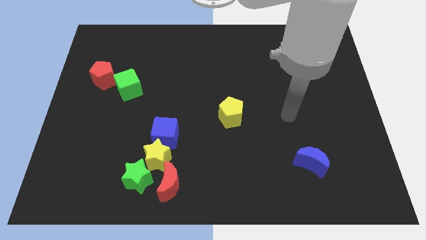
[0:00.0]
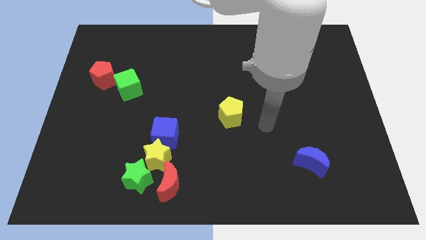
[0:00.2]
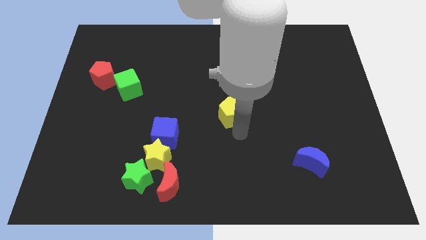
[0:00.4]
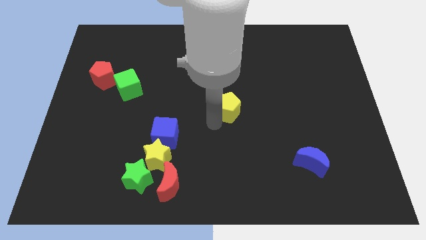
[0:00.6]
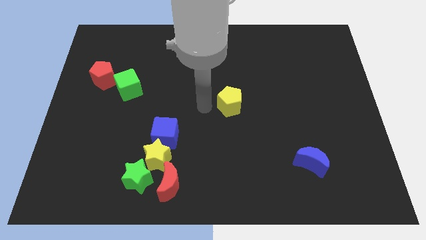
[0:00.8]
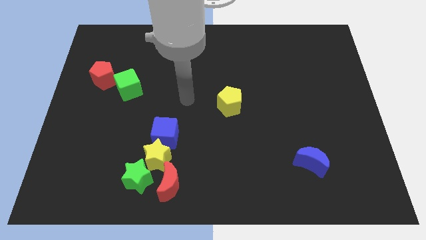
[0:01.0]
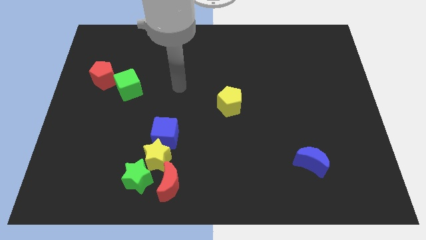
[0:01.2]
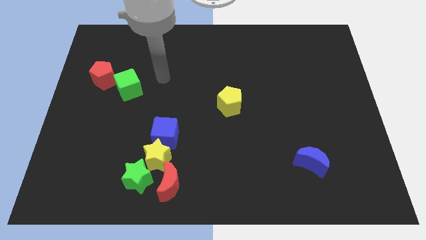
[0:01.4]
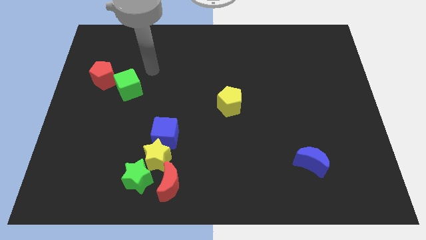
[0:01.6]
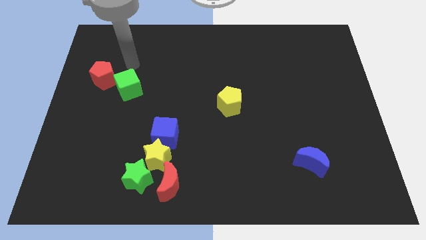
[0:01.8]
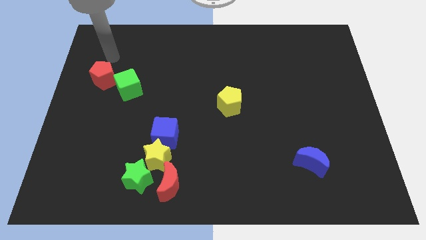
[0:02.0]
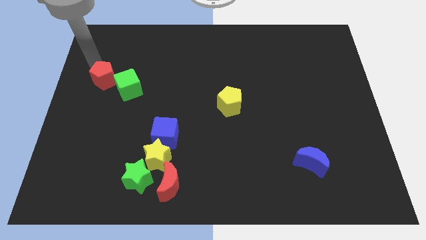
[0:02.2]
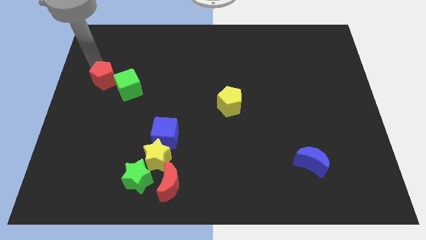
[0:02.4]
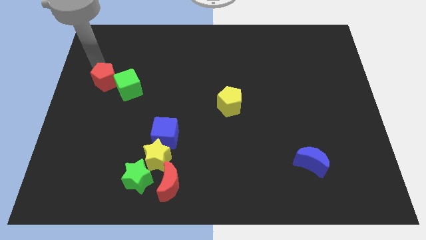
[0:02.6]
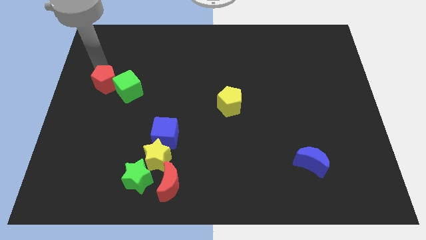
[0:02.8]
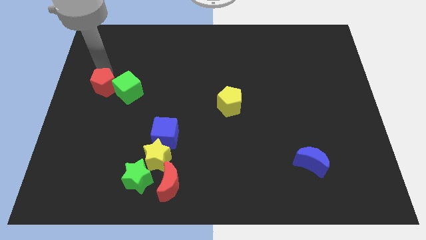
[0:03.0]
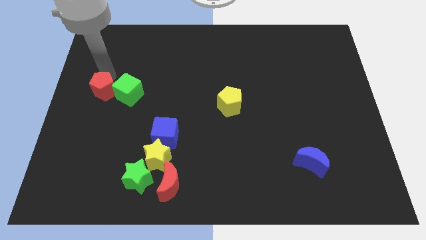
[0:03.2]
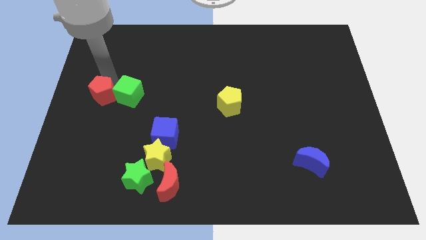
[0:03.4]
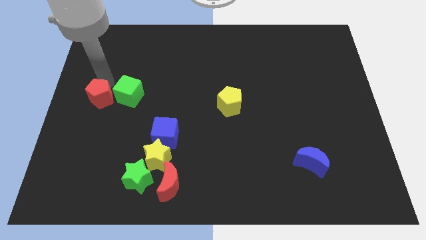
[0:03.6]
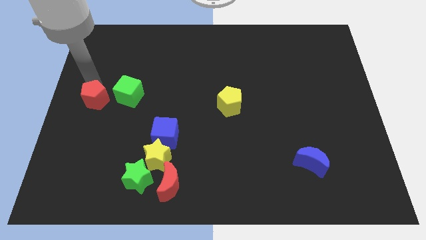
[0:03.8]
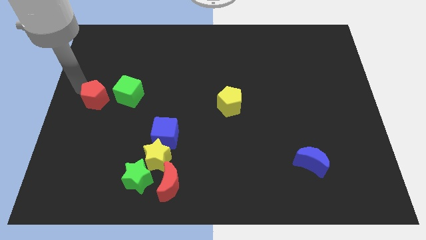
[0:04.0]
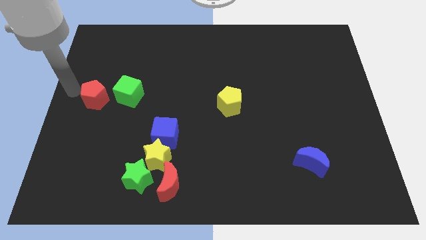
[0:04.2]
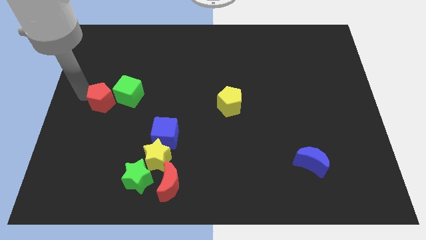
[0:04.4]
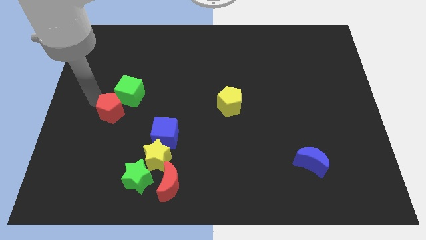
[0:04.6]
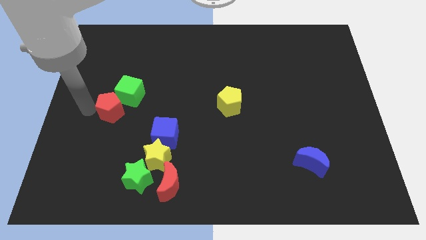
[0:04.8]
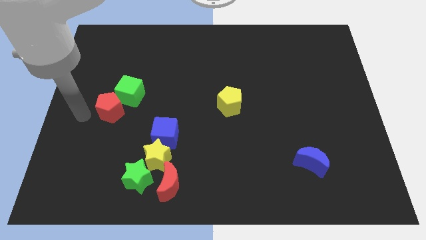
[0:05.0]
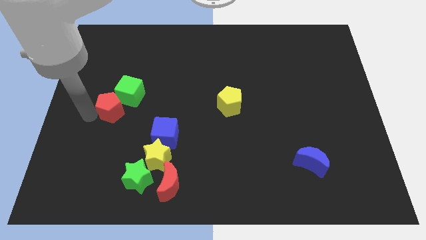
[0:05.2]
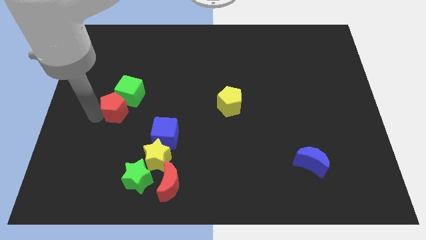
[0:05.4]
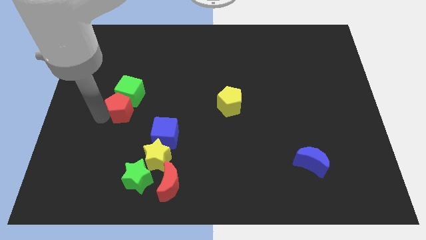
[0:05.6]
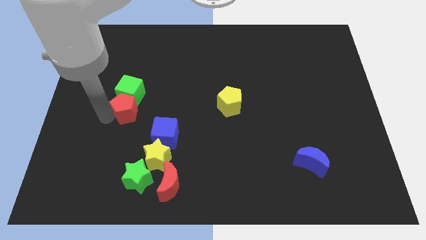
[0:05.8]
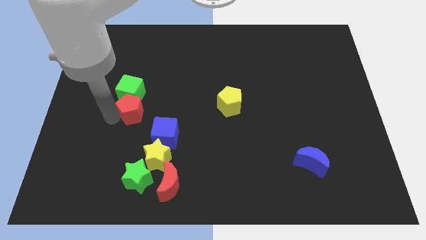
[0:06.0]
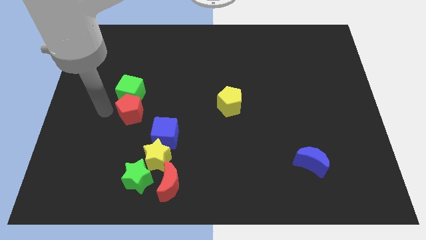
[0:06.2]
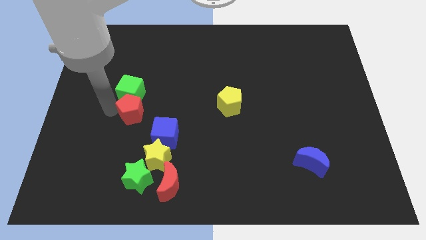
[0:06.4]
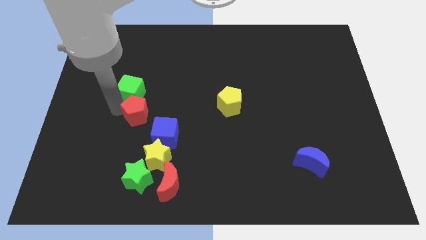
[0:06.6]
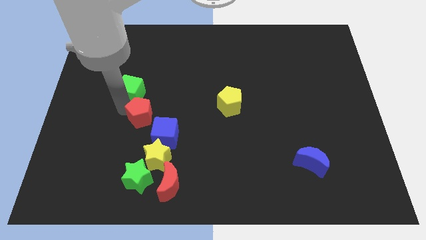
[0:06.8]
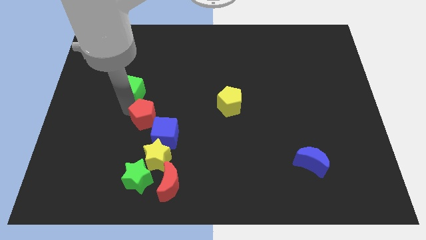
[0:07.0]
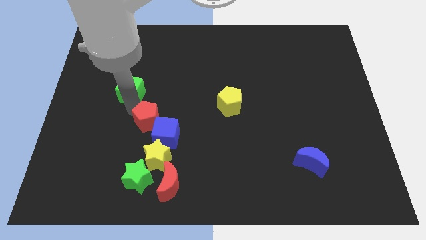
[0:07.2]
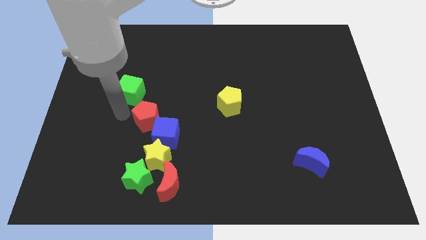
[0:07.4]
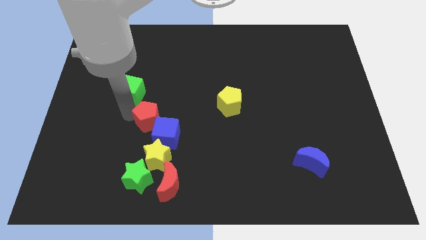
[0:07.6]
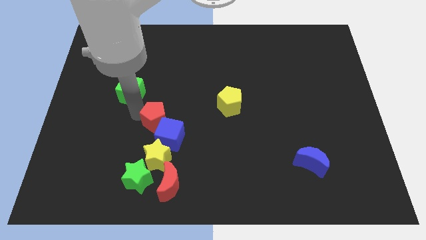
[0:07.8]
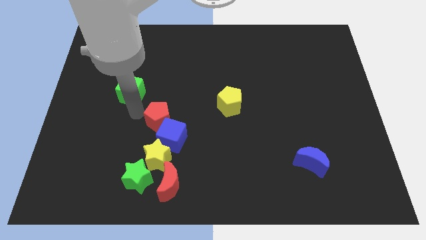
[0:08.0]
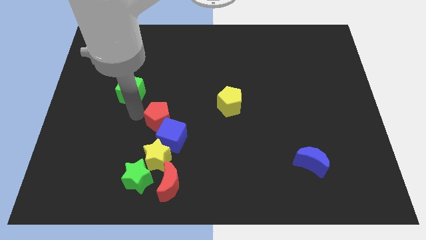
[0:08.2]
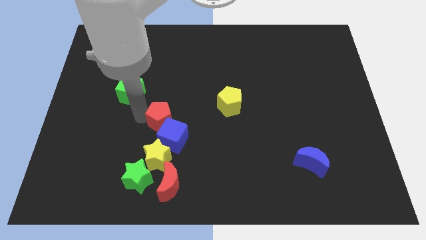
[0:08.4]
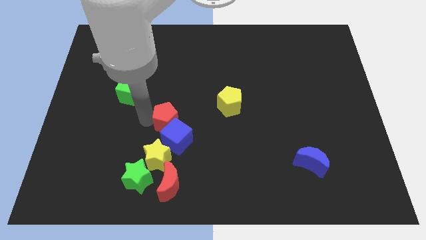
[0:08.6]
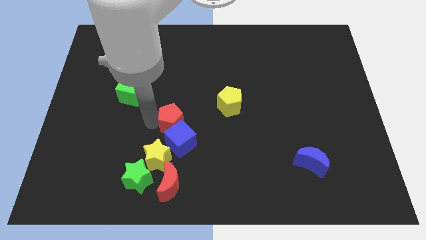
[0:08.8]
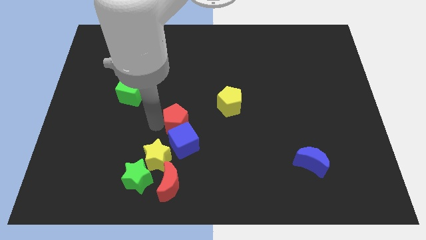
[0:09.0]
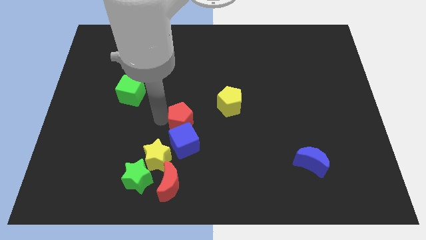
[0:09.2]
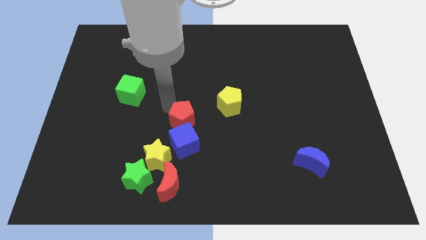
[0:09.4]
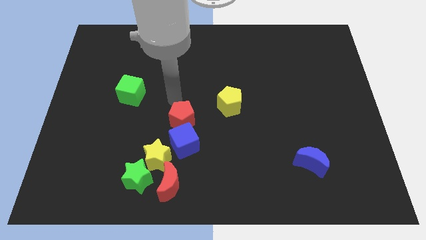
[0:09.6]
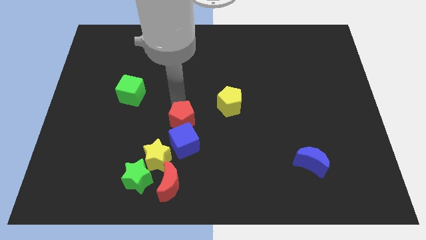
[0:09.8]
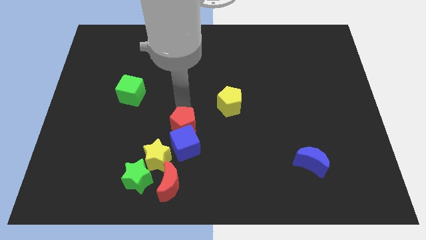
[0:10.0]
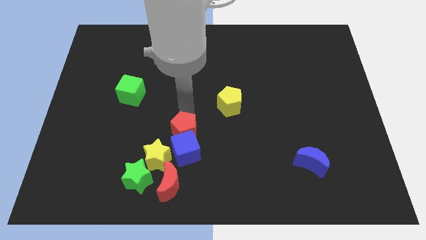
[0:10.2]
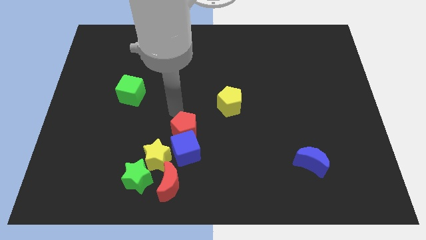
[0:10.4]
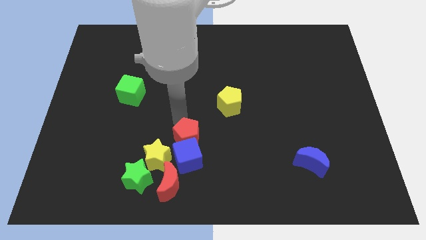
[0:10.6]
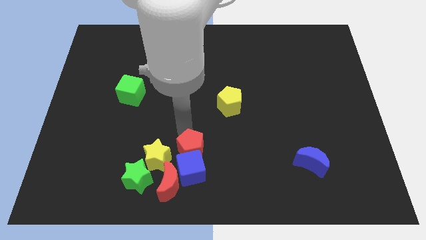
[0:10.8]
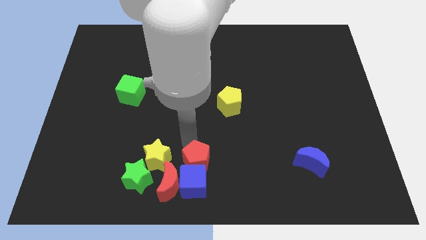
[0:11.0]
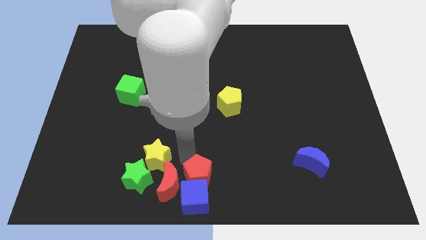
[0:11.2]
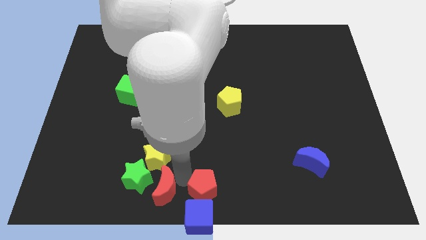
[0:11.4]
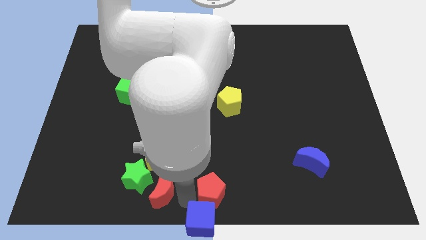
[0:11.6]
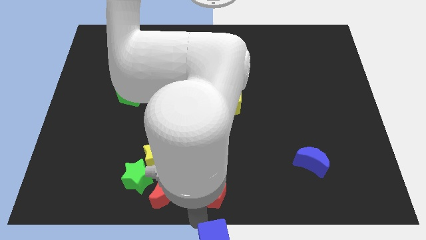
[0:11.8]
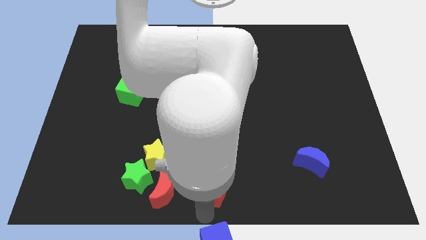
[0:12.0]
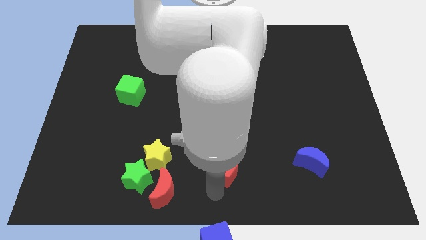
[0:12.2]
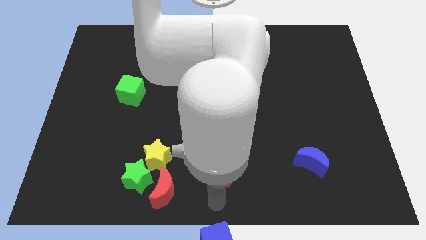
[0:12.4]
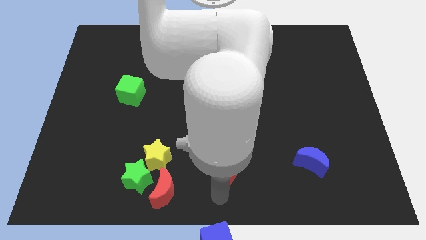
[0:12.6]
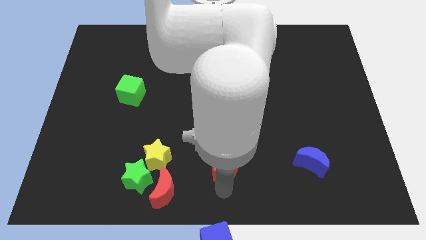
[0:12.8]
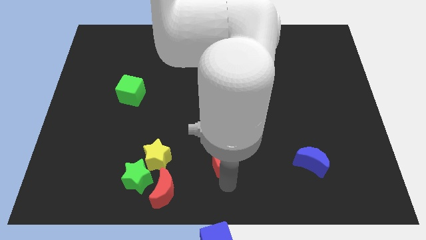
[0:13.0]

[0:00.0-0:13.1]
push the red pentagon to the bottom side of the yellow pentagon
